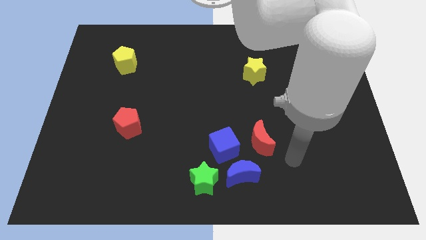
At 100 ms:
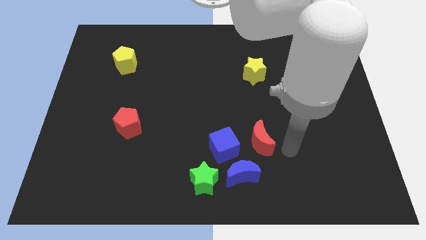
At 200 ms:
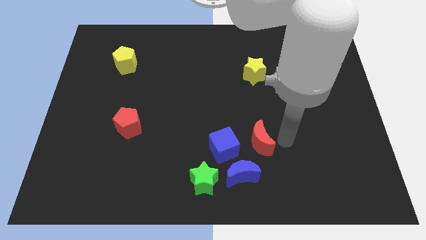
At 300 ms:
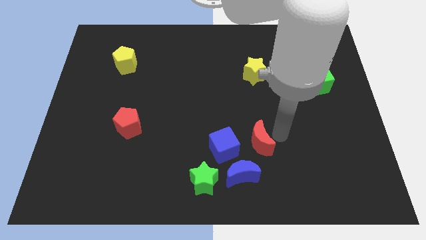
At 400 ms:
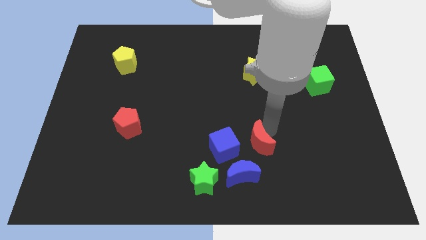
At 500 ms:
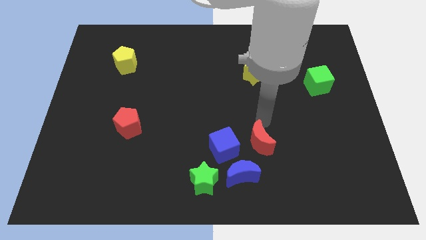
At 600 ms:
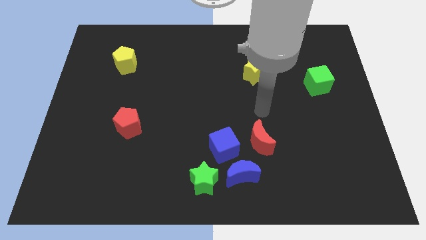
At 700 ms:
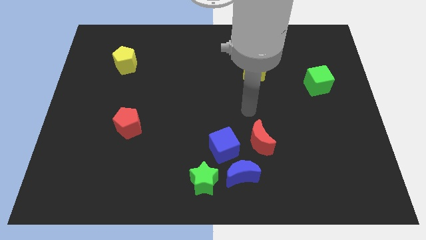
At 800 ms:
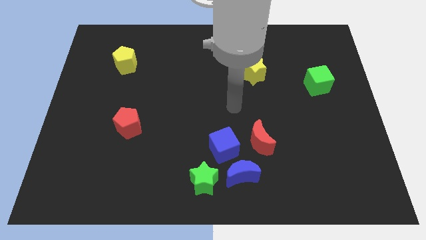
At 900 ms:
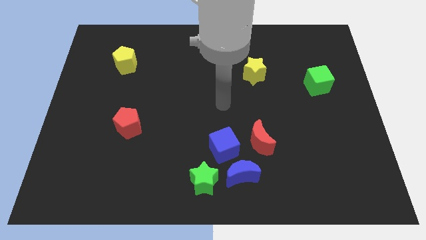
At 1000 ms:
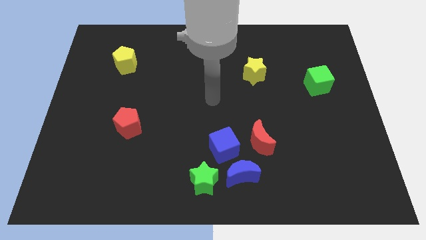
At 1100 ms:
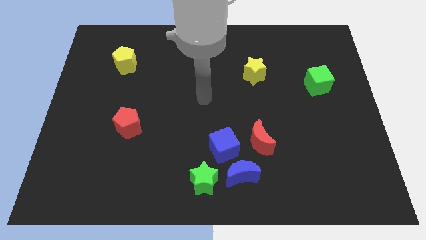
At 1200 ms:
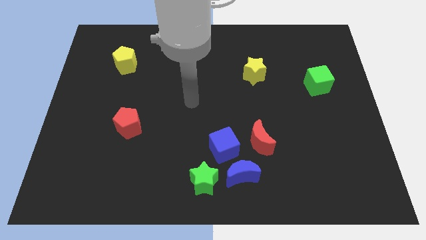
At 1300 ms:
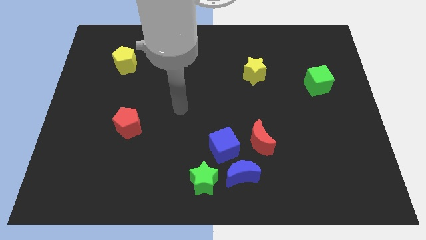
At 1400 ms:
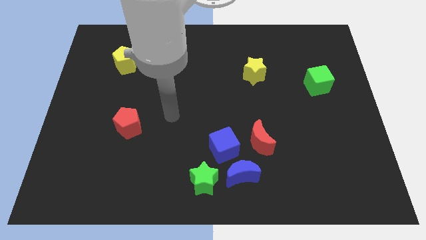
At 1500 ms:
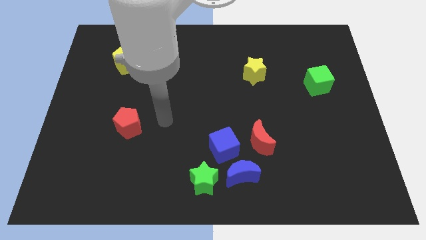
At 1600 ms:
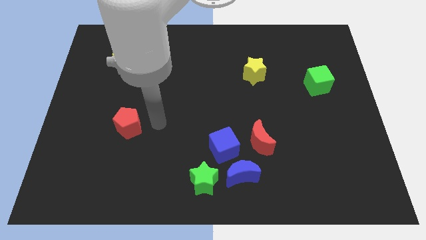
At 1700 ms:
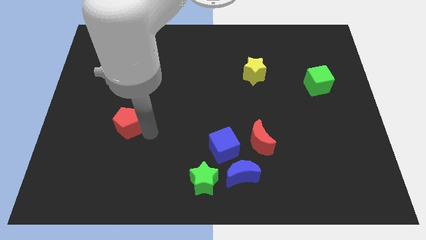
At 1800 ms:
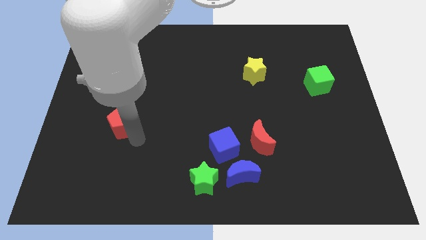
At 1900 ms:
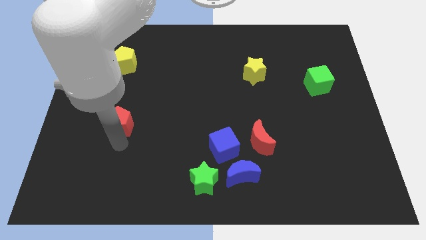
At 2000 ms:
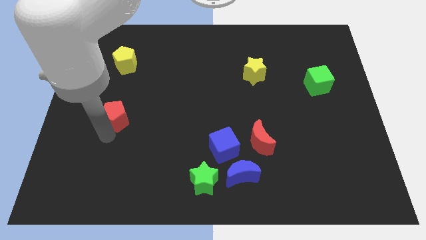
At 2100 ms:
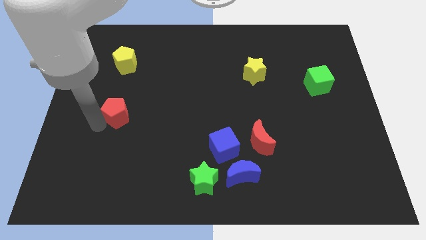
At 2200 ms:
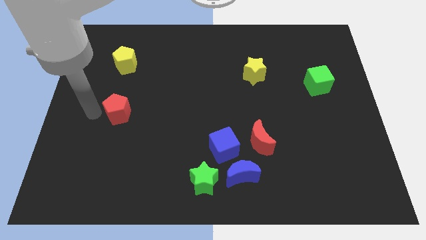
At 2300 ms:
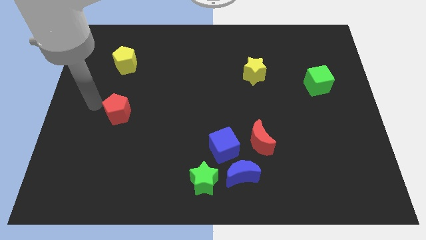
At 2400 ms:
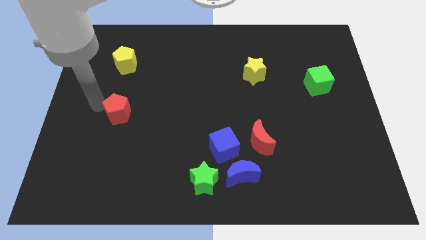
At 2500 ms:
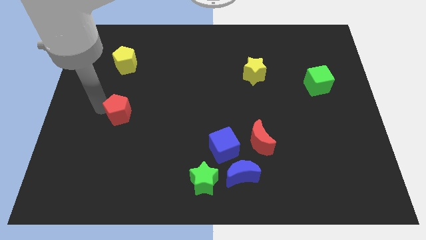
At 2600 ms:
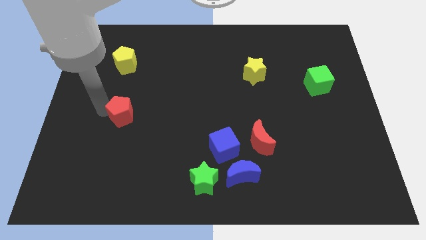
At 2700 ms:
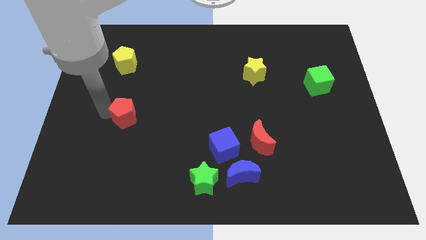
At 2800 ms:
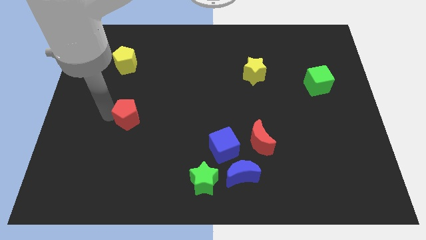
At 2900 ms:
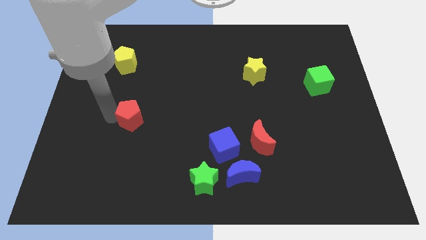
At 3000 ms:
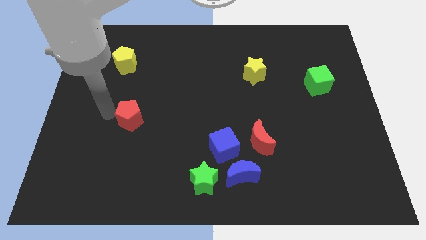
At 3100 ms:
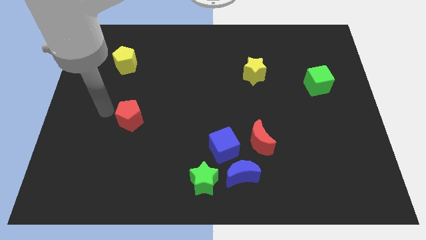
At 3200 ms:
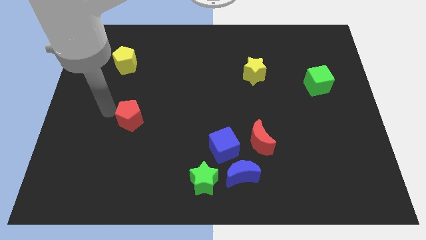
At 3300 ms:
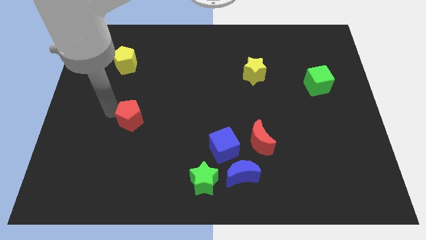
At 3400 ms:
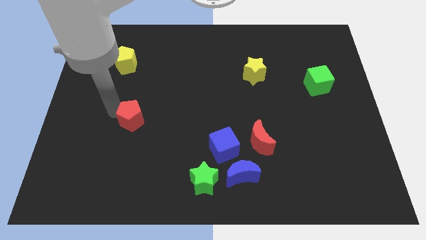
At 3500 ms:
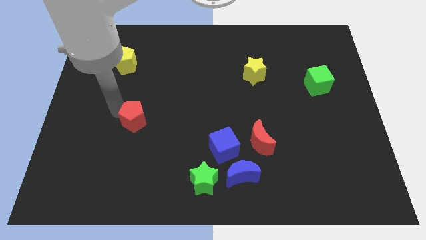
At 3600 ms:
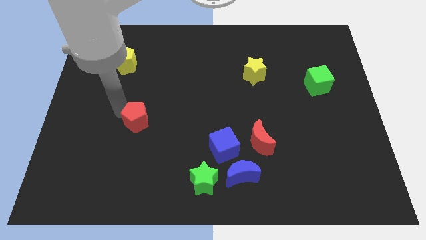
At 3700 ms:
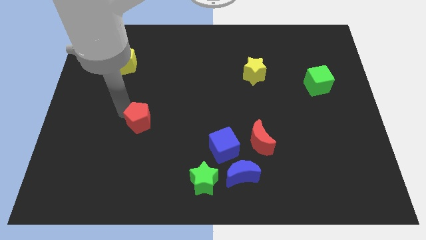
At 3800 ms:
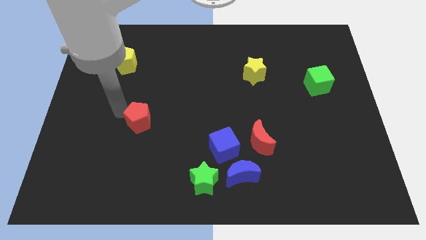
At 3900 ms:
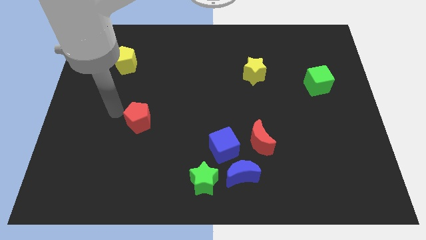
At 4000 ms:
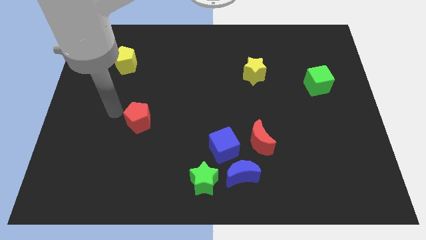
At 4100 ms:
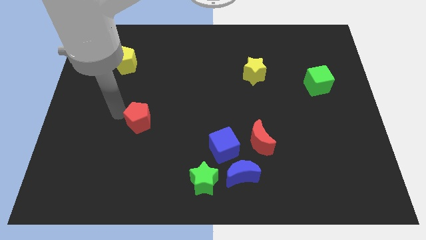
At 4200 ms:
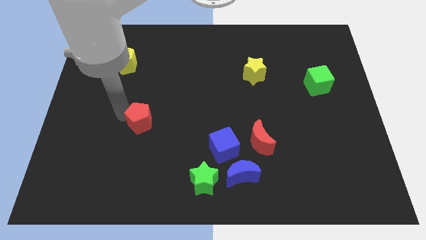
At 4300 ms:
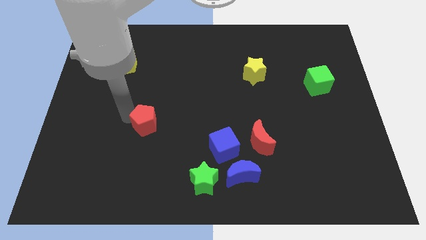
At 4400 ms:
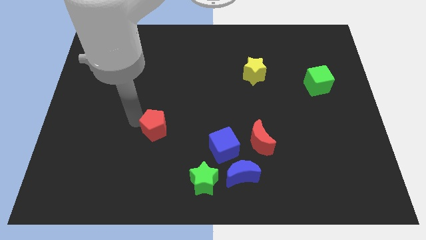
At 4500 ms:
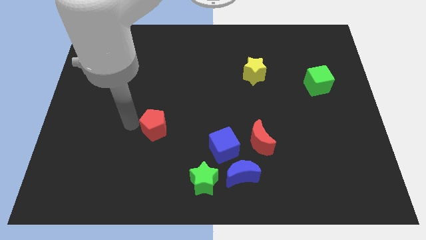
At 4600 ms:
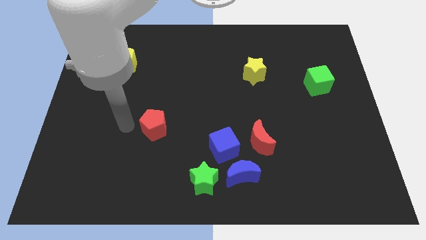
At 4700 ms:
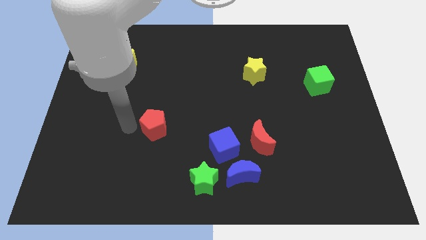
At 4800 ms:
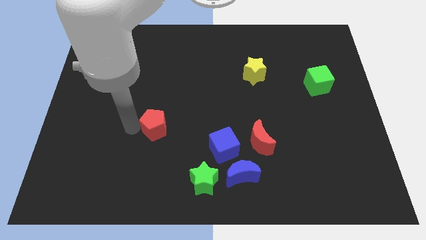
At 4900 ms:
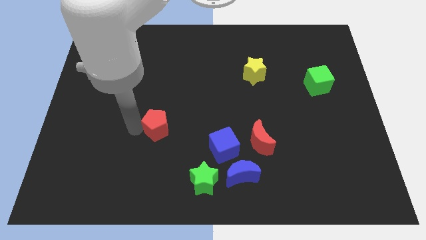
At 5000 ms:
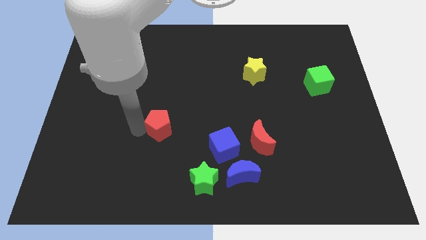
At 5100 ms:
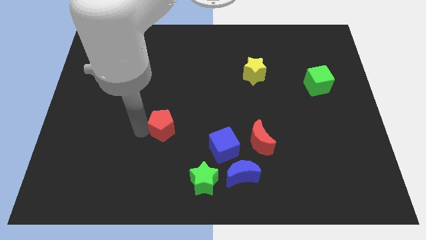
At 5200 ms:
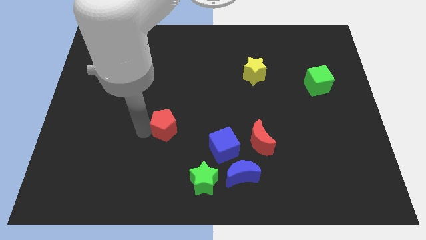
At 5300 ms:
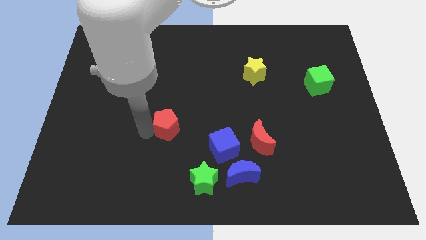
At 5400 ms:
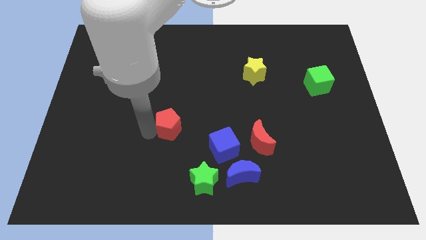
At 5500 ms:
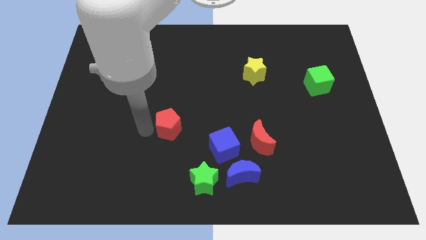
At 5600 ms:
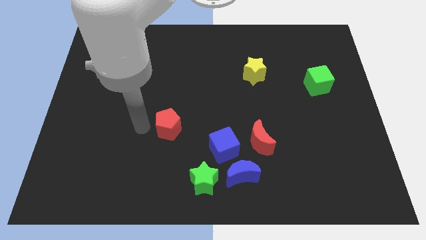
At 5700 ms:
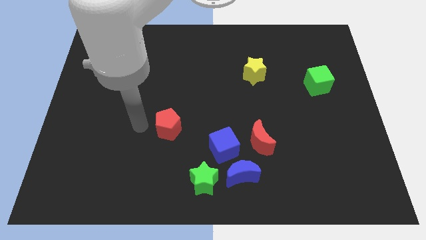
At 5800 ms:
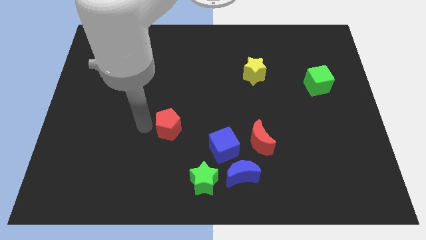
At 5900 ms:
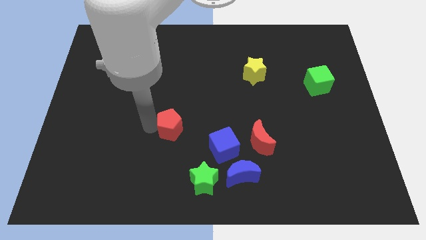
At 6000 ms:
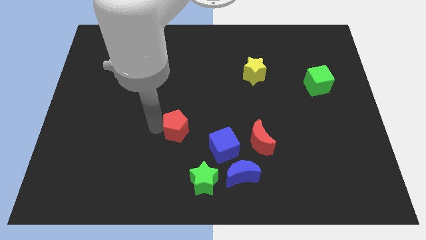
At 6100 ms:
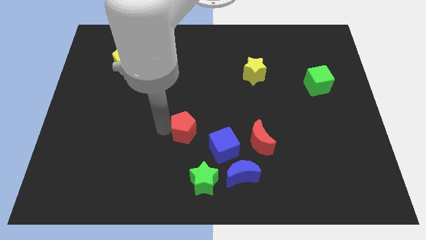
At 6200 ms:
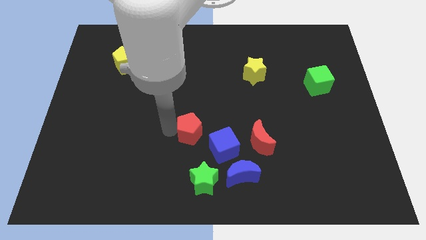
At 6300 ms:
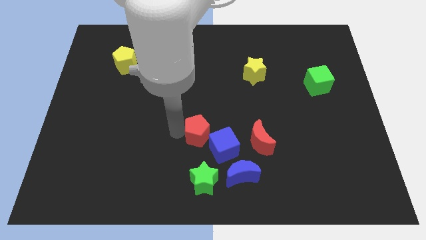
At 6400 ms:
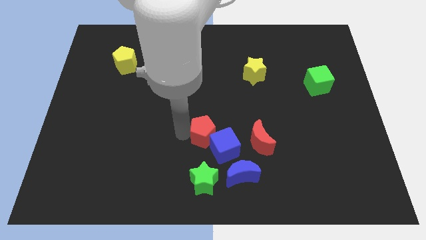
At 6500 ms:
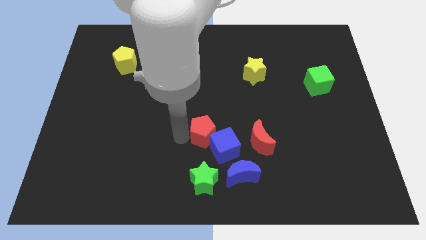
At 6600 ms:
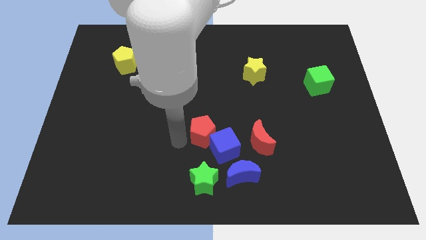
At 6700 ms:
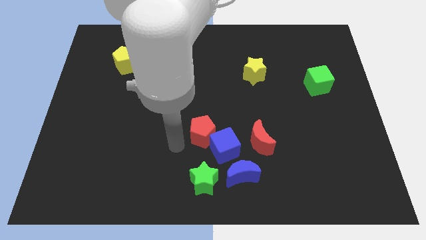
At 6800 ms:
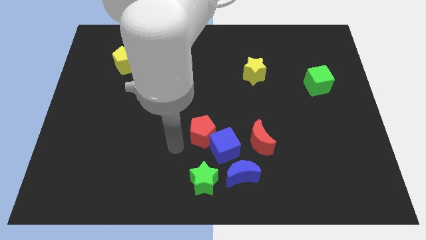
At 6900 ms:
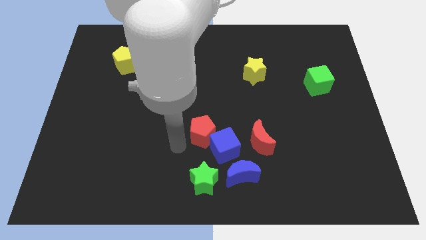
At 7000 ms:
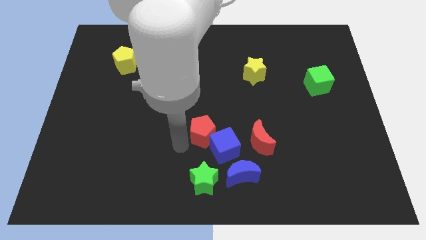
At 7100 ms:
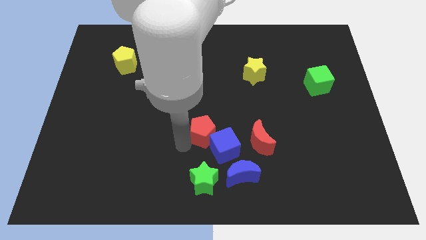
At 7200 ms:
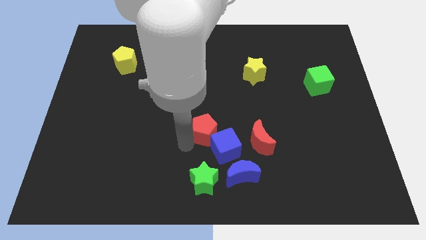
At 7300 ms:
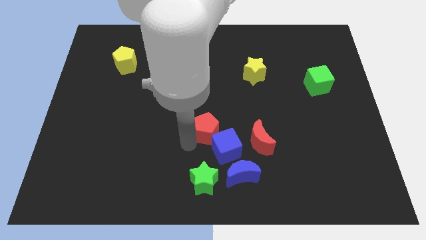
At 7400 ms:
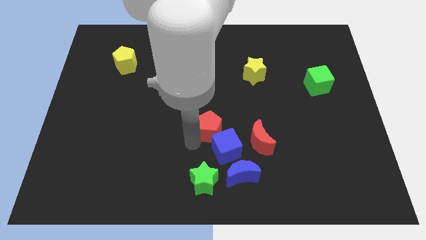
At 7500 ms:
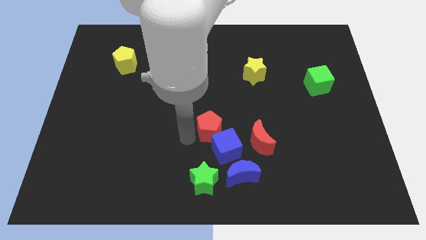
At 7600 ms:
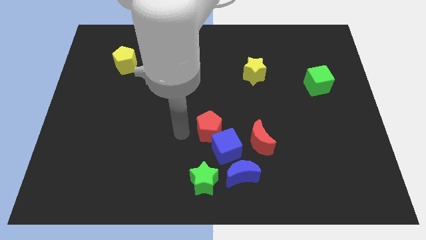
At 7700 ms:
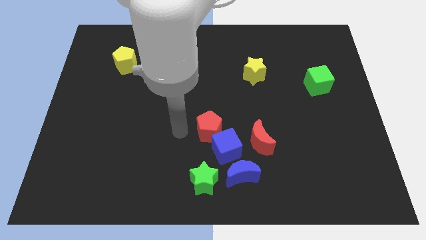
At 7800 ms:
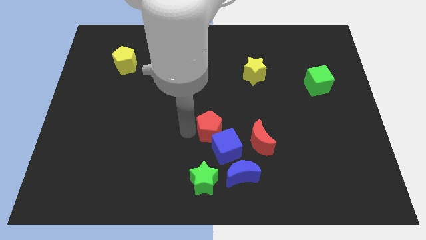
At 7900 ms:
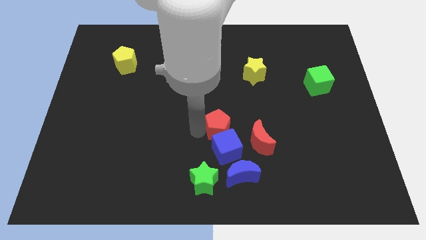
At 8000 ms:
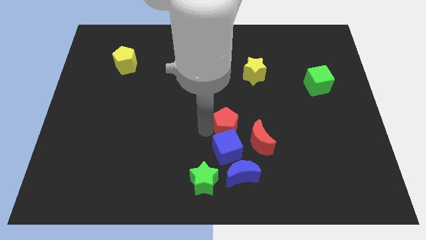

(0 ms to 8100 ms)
move the red pentagon diagonally up and to the right of the blue cube
